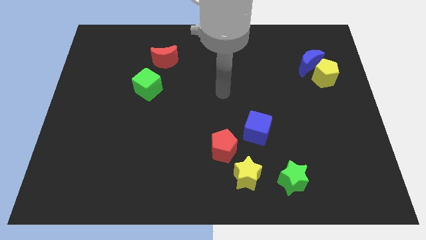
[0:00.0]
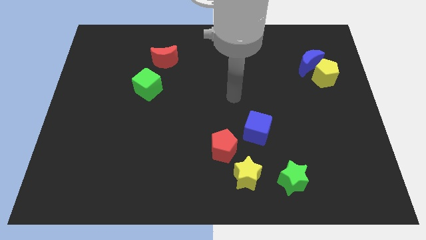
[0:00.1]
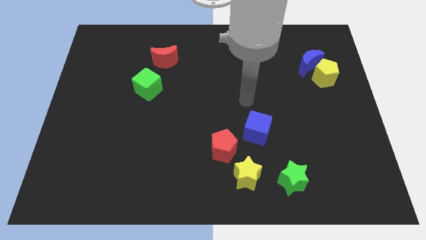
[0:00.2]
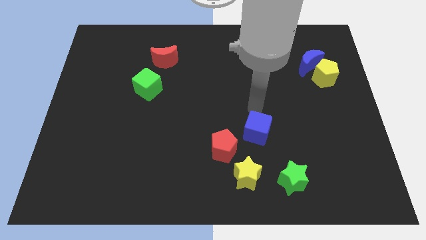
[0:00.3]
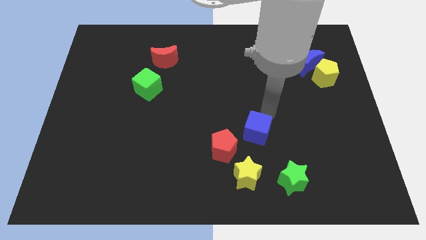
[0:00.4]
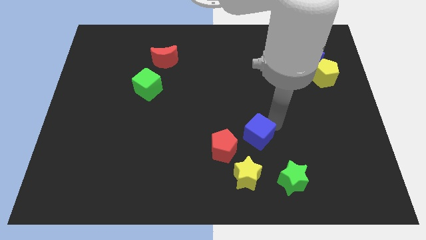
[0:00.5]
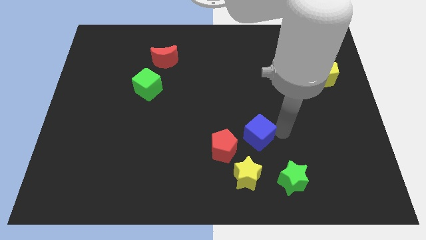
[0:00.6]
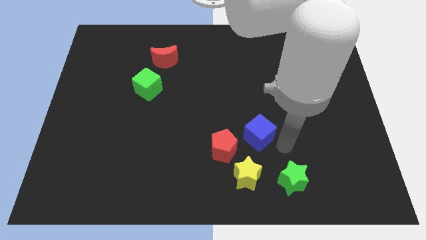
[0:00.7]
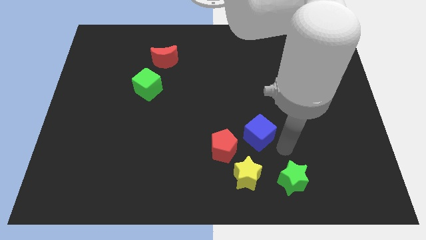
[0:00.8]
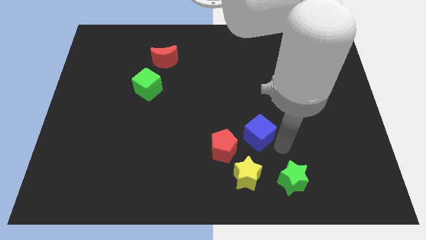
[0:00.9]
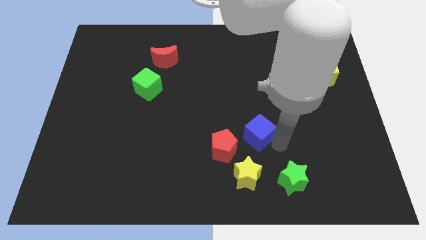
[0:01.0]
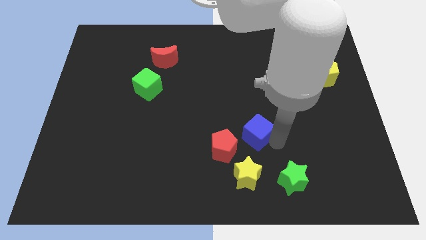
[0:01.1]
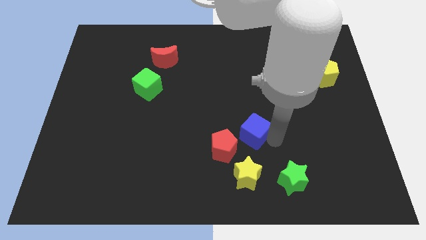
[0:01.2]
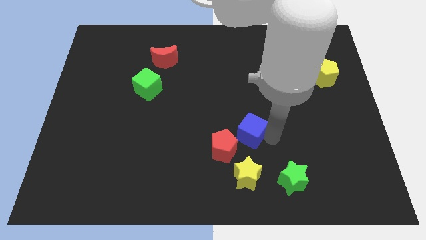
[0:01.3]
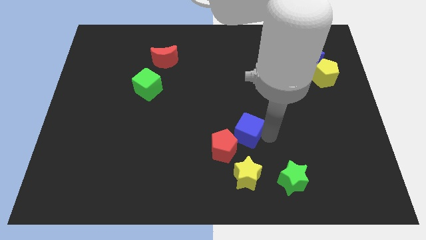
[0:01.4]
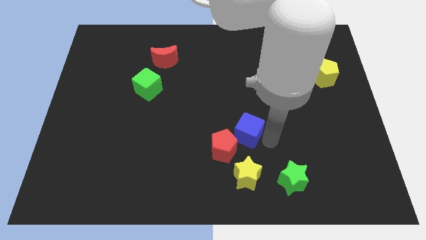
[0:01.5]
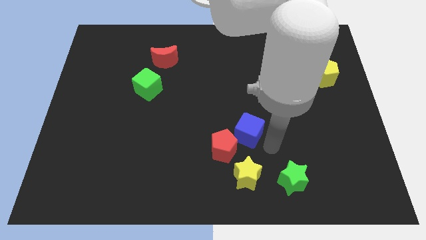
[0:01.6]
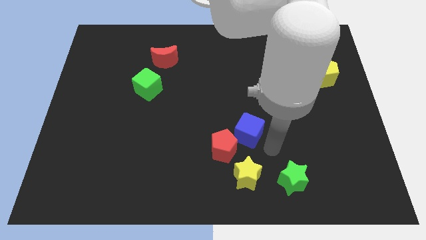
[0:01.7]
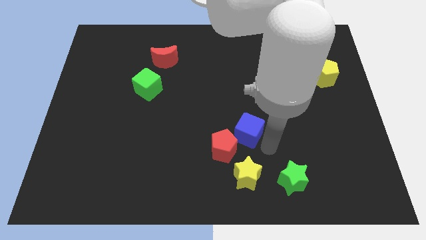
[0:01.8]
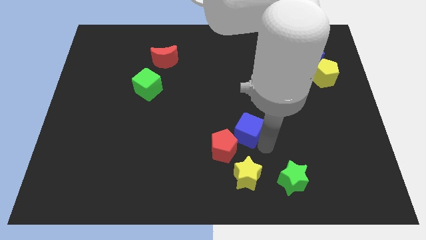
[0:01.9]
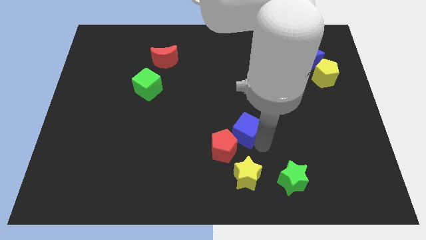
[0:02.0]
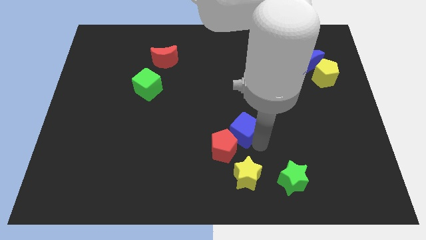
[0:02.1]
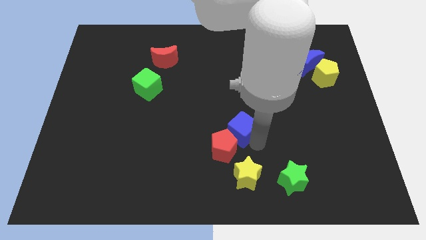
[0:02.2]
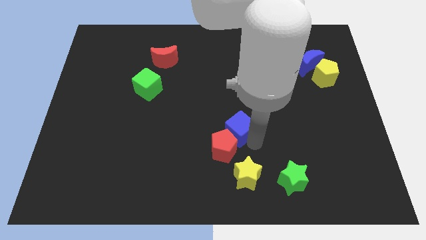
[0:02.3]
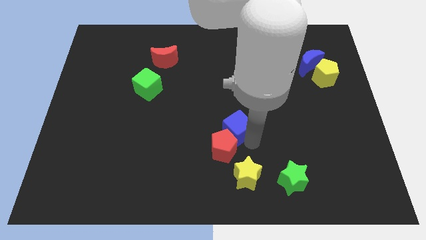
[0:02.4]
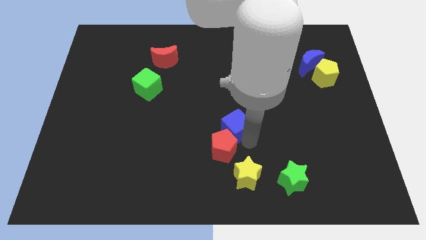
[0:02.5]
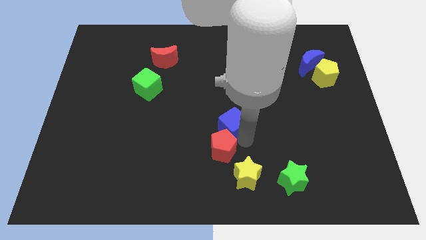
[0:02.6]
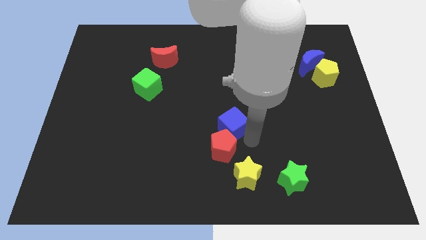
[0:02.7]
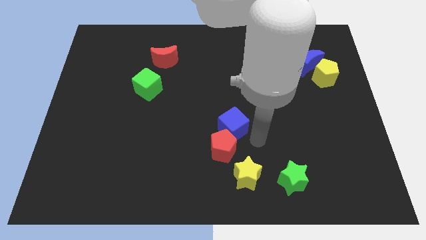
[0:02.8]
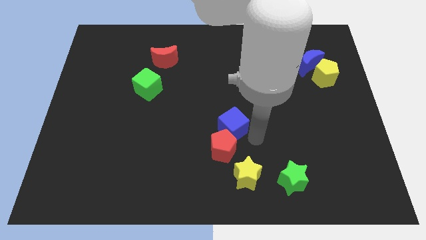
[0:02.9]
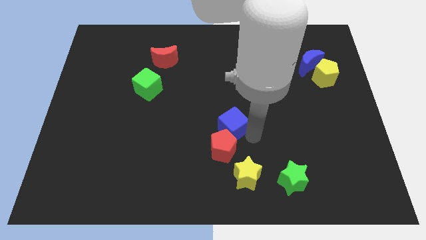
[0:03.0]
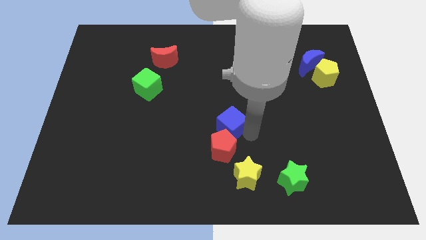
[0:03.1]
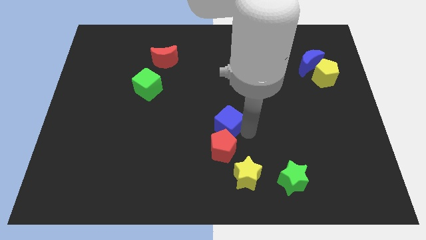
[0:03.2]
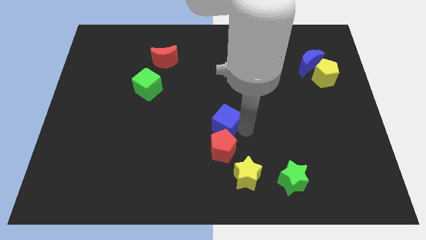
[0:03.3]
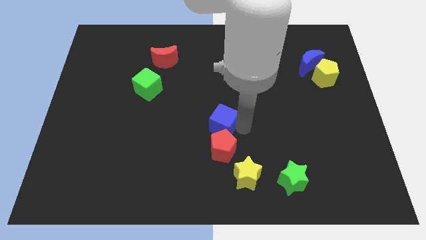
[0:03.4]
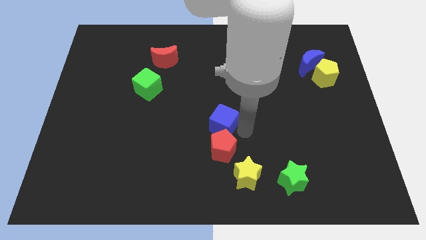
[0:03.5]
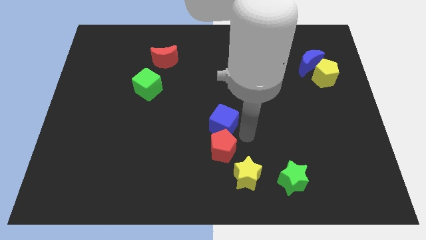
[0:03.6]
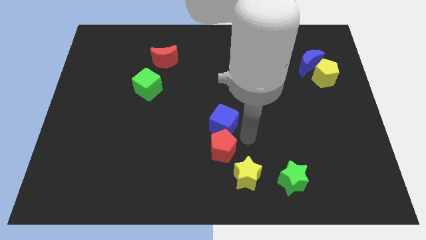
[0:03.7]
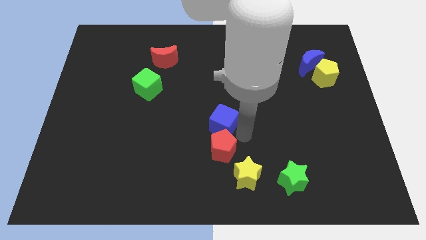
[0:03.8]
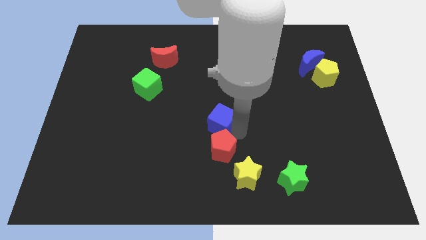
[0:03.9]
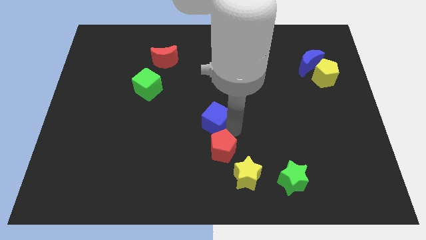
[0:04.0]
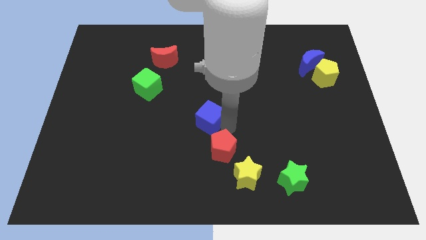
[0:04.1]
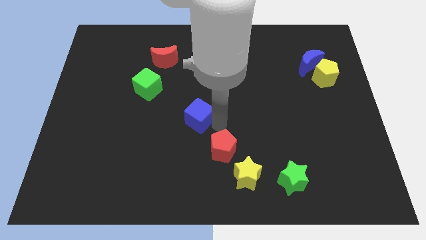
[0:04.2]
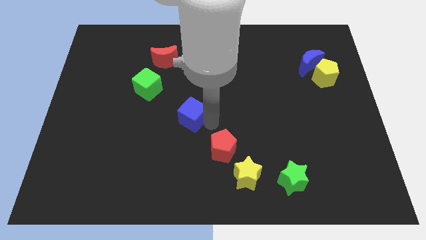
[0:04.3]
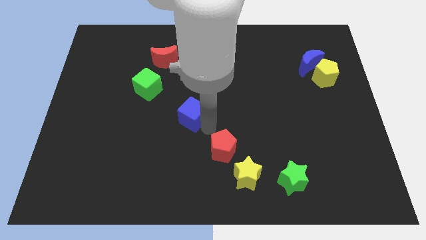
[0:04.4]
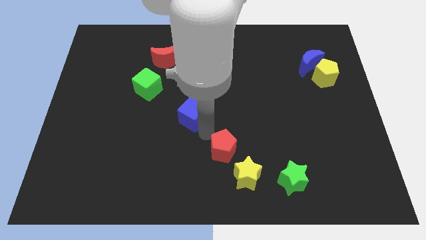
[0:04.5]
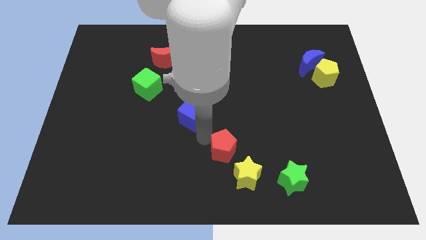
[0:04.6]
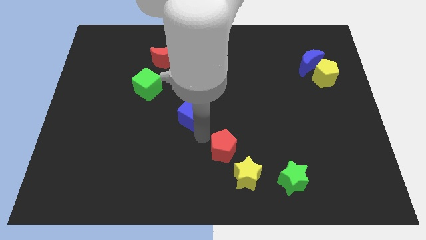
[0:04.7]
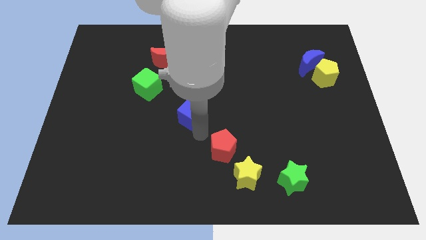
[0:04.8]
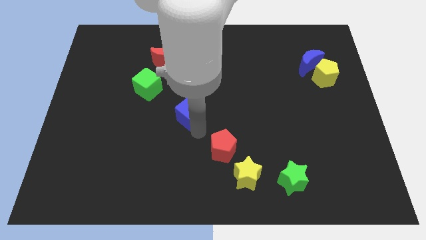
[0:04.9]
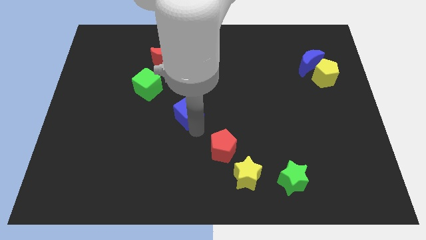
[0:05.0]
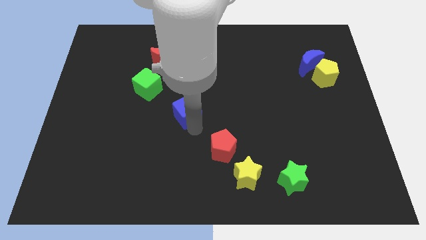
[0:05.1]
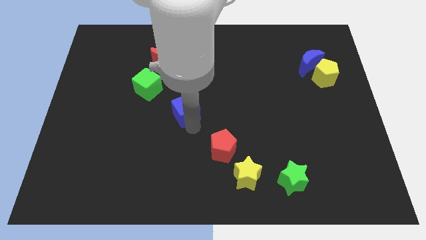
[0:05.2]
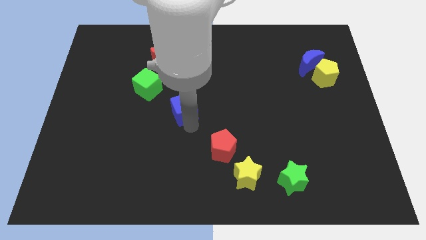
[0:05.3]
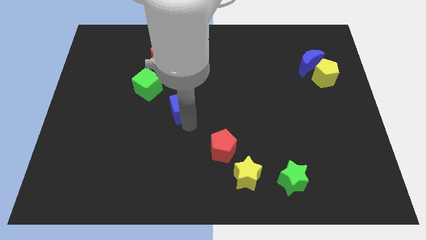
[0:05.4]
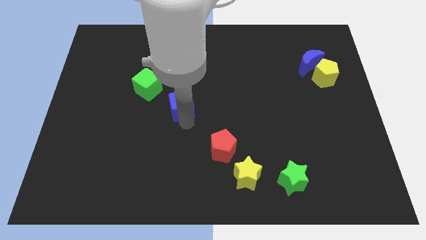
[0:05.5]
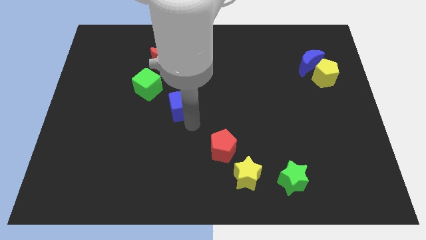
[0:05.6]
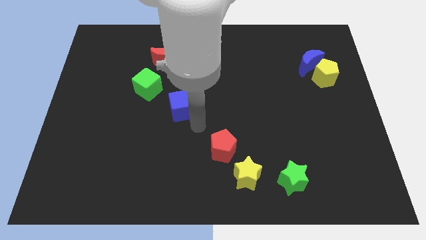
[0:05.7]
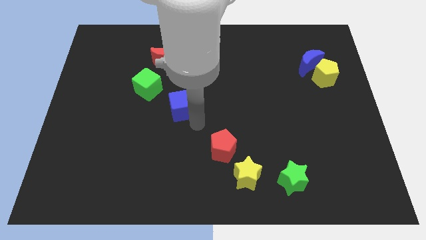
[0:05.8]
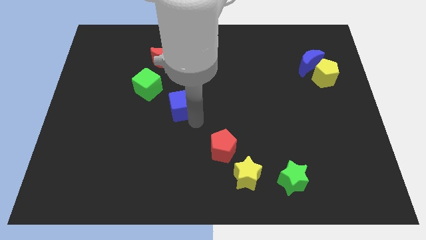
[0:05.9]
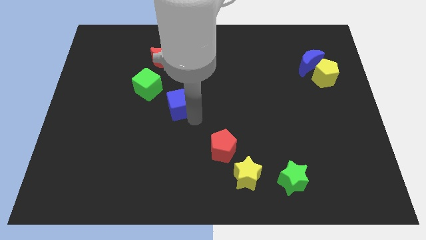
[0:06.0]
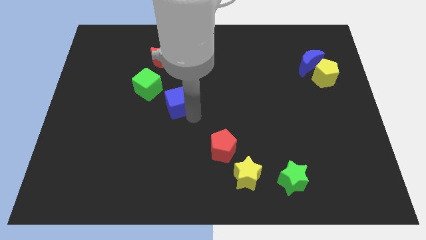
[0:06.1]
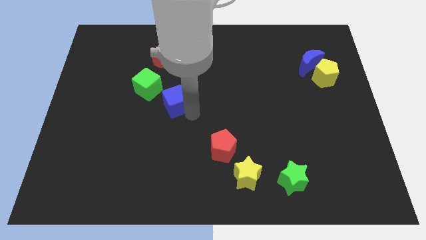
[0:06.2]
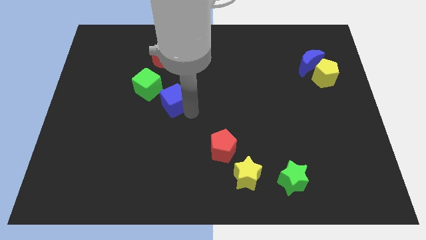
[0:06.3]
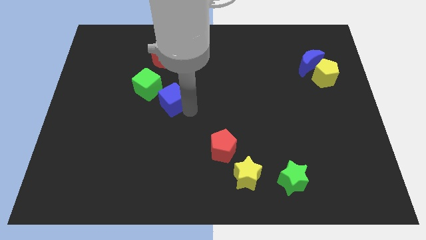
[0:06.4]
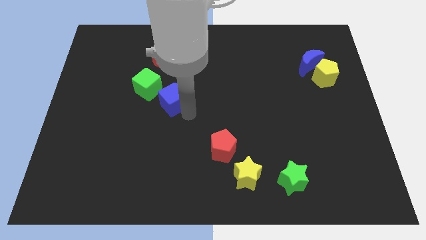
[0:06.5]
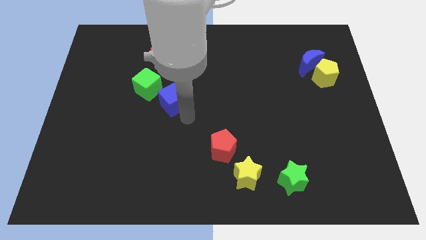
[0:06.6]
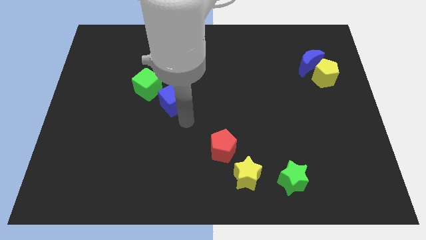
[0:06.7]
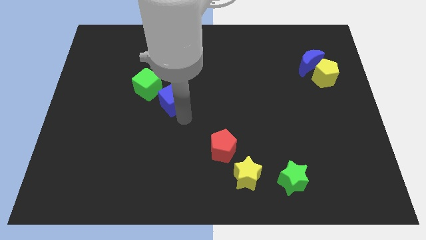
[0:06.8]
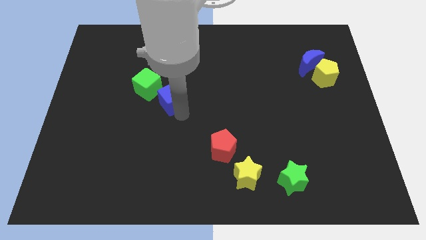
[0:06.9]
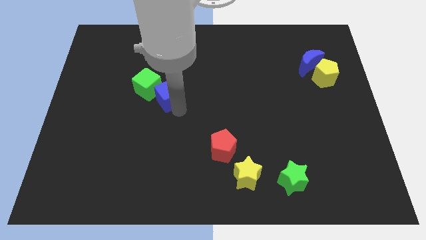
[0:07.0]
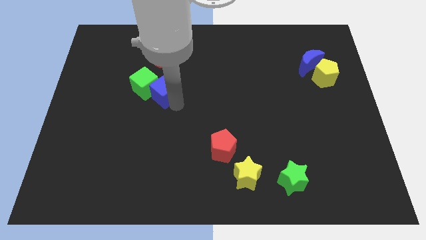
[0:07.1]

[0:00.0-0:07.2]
put the blue cube towards the green cube
